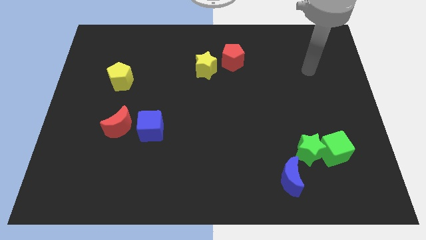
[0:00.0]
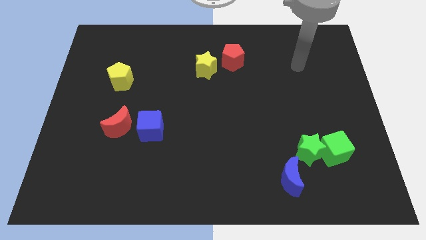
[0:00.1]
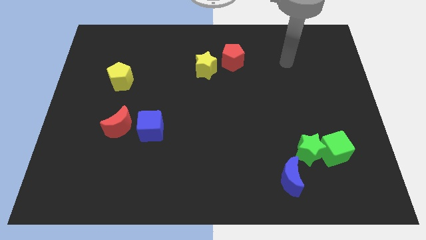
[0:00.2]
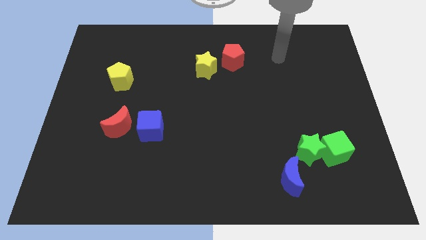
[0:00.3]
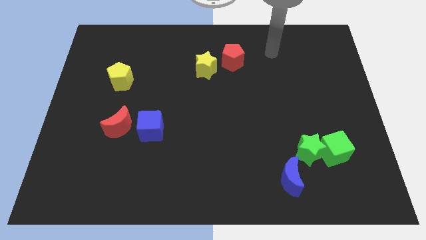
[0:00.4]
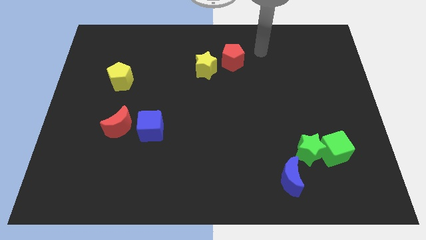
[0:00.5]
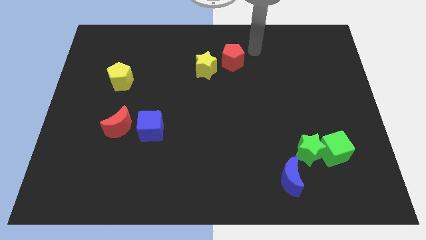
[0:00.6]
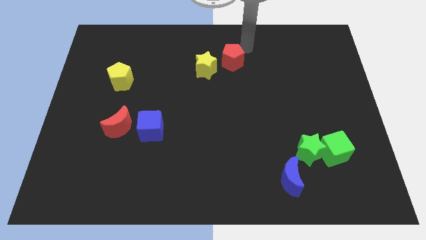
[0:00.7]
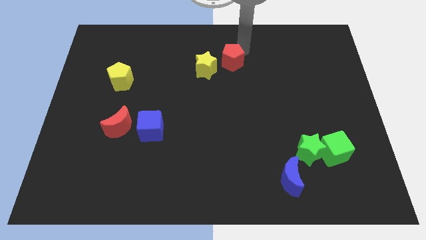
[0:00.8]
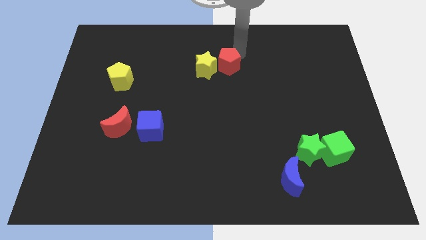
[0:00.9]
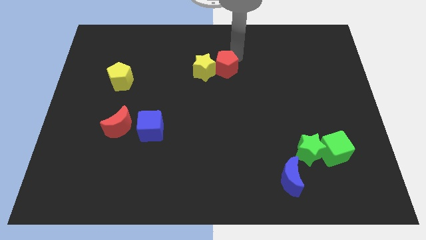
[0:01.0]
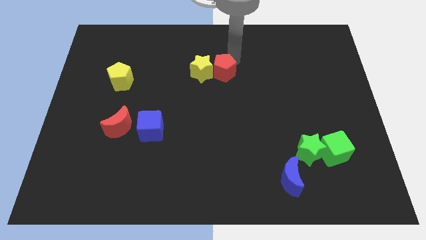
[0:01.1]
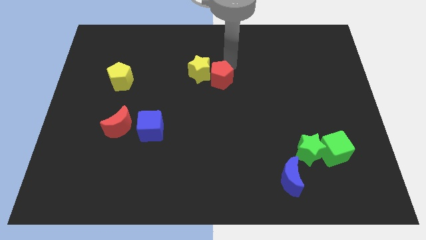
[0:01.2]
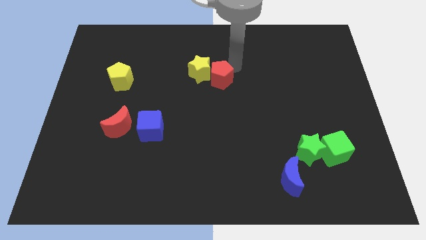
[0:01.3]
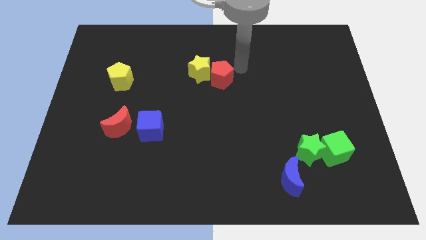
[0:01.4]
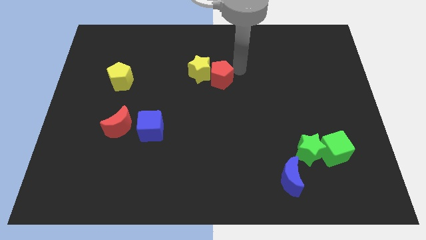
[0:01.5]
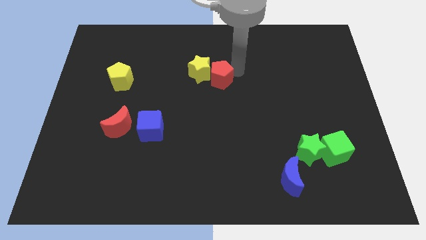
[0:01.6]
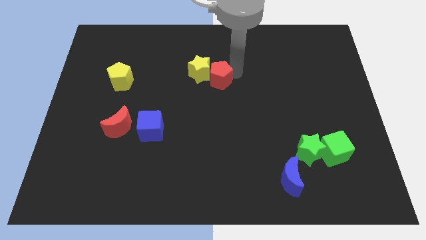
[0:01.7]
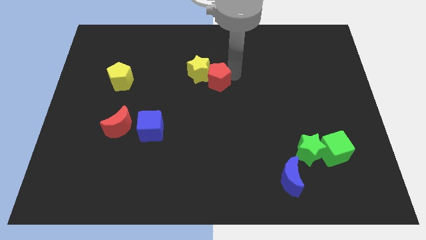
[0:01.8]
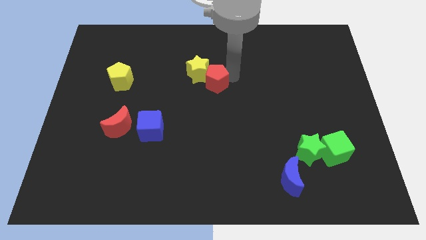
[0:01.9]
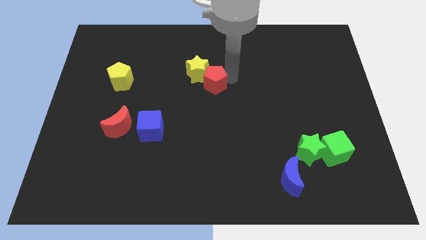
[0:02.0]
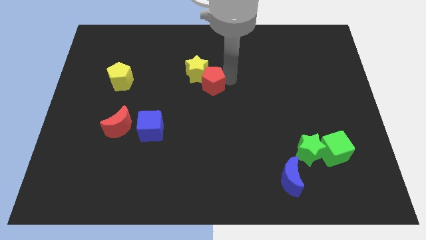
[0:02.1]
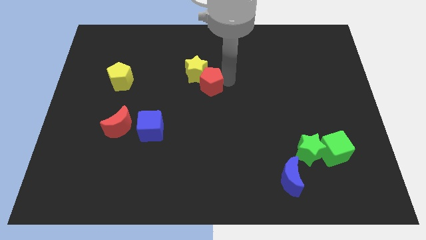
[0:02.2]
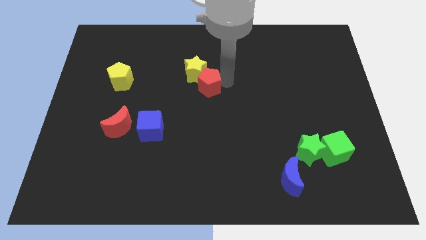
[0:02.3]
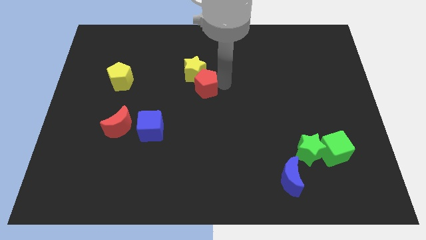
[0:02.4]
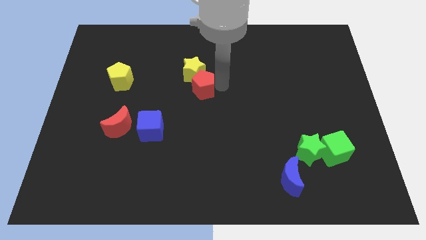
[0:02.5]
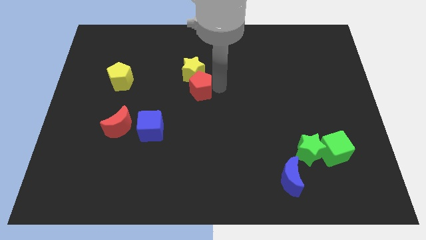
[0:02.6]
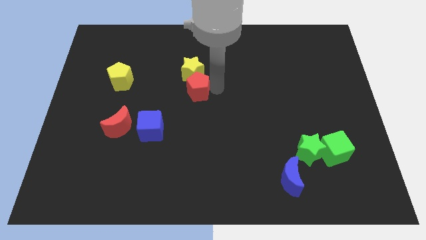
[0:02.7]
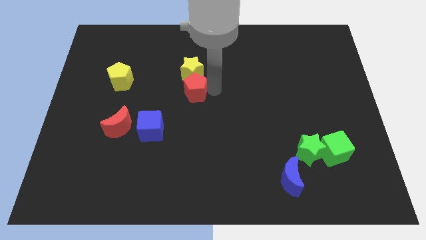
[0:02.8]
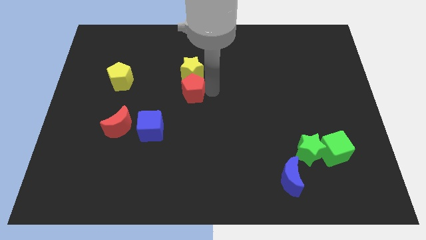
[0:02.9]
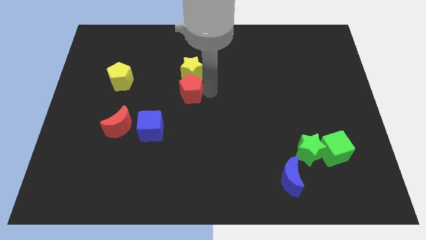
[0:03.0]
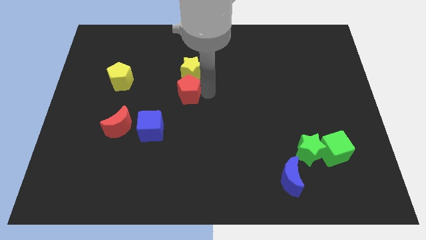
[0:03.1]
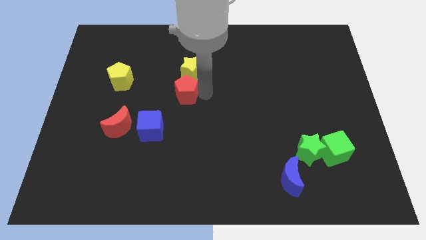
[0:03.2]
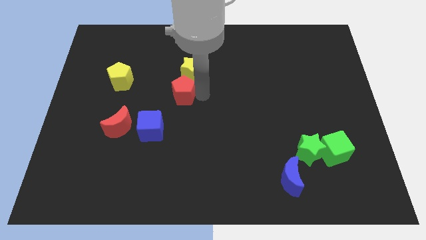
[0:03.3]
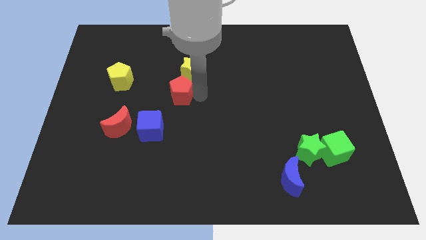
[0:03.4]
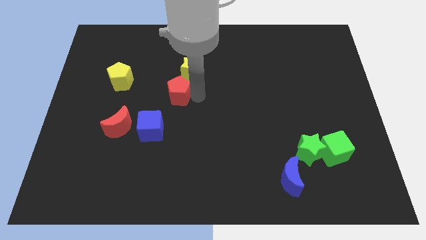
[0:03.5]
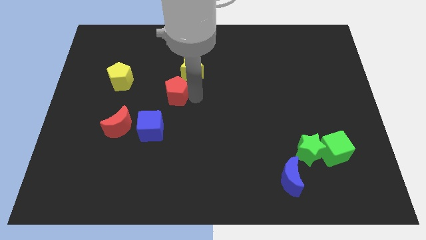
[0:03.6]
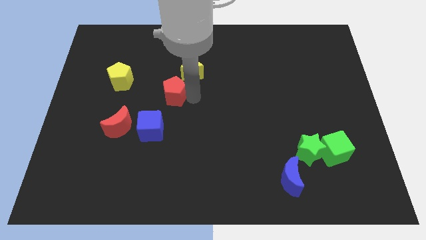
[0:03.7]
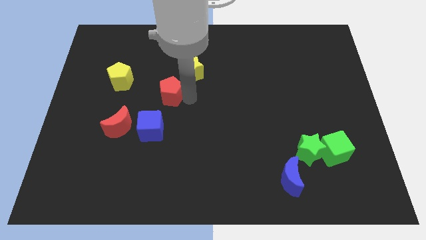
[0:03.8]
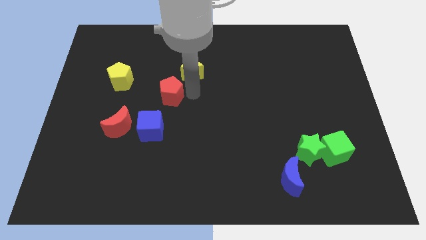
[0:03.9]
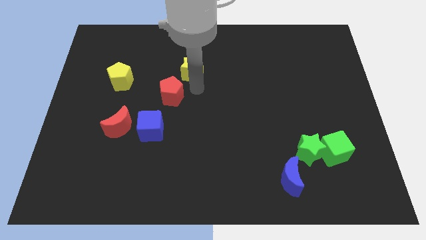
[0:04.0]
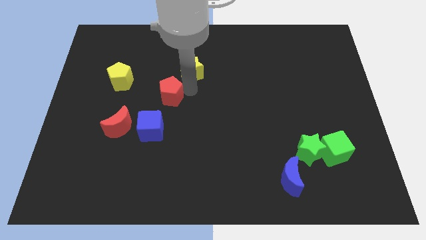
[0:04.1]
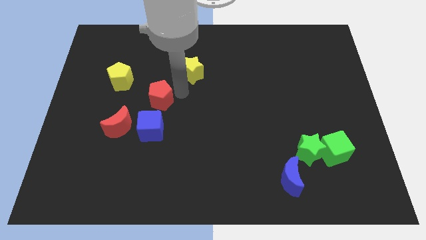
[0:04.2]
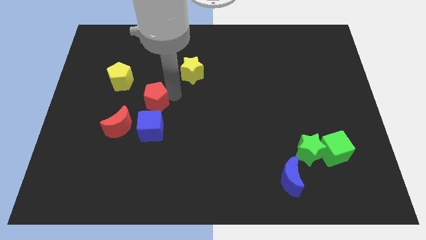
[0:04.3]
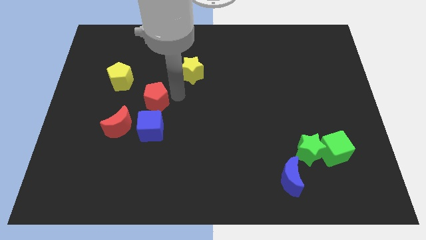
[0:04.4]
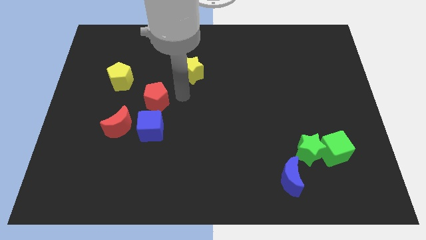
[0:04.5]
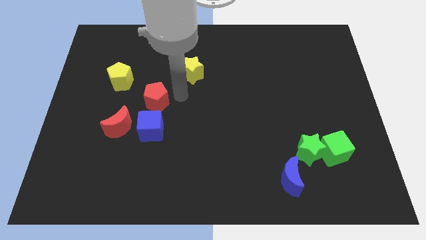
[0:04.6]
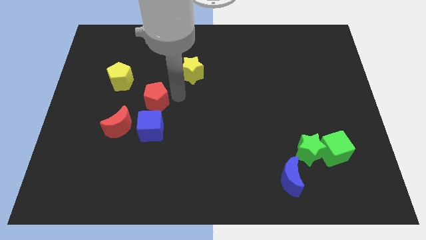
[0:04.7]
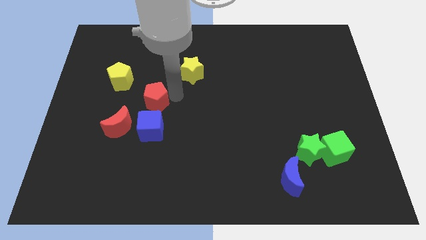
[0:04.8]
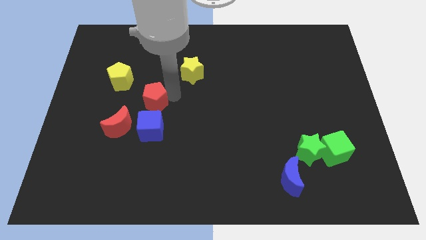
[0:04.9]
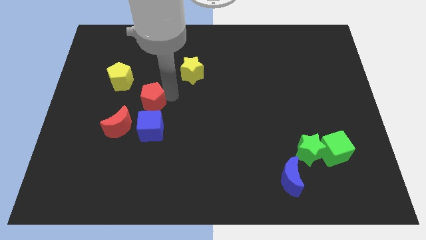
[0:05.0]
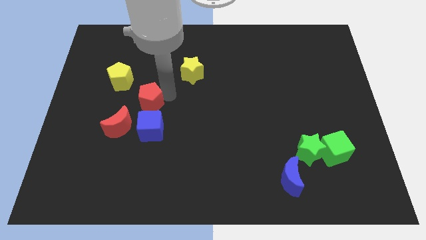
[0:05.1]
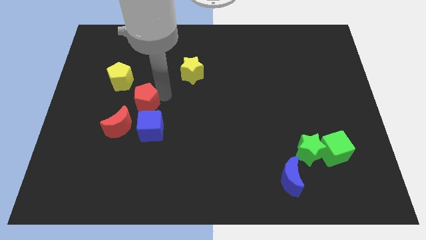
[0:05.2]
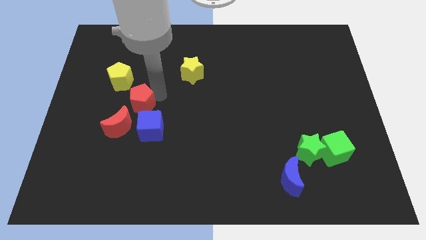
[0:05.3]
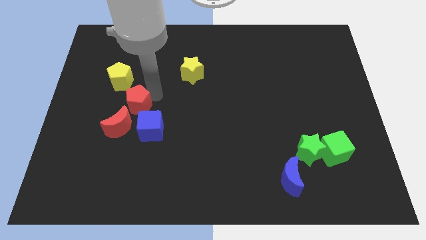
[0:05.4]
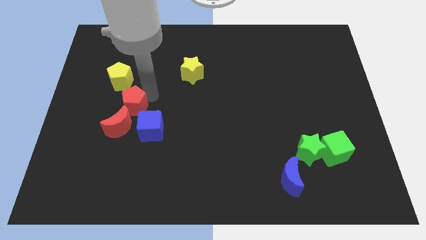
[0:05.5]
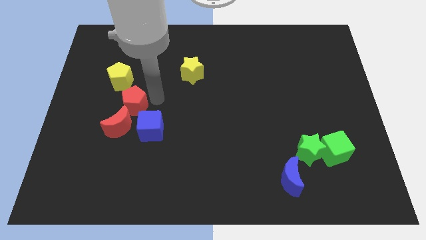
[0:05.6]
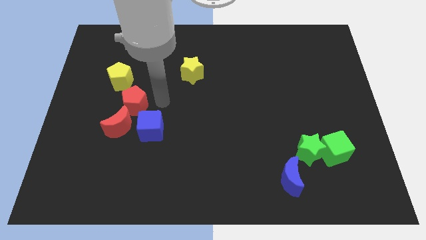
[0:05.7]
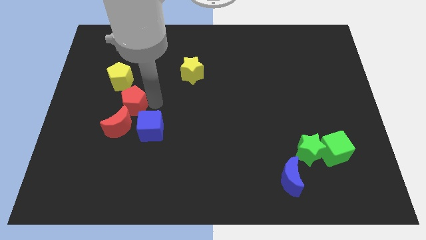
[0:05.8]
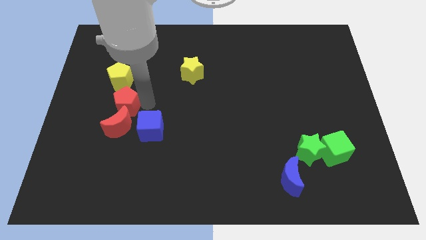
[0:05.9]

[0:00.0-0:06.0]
move the red pentagon to the top left of the red moon
